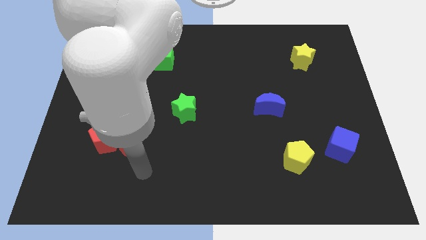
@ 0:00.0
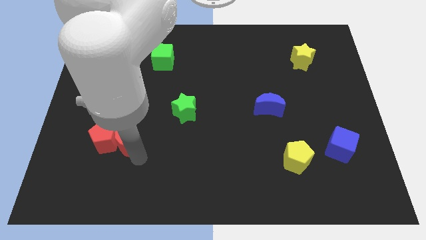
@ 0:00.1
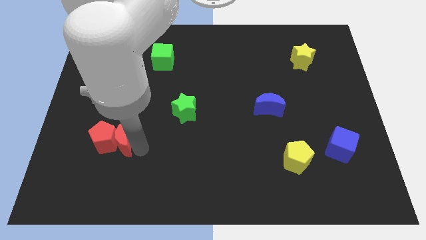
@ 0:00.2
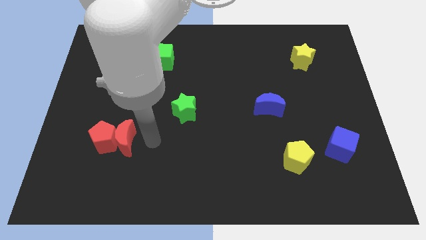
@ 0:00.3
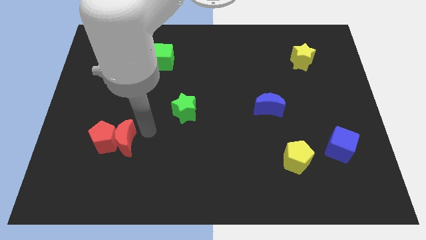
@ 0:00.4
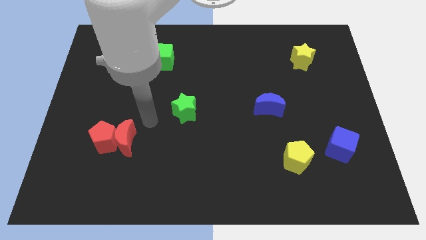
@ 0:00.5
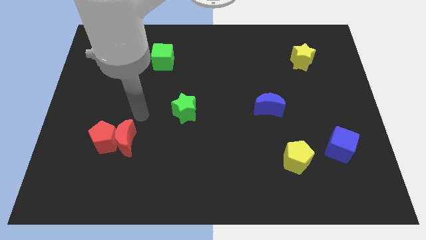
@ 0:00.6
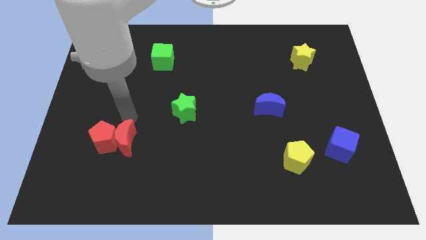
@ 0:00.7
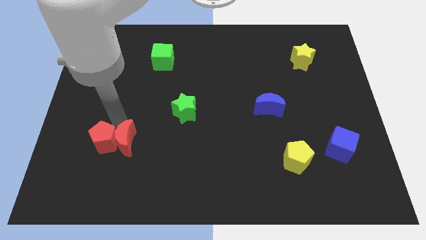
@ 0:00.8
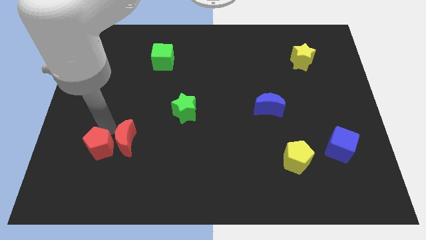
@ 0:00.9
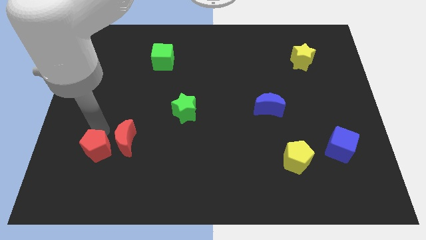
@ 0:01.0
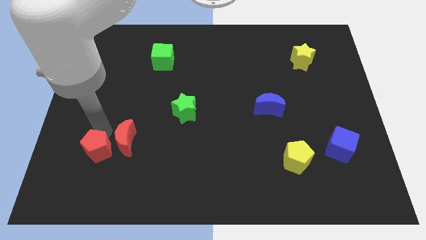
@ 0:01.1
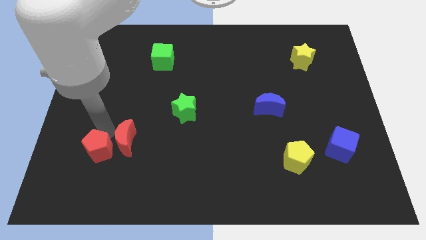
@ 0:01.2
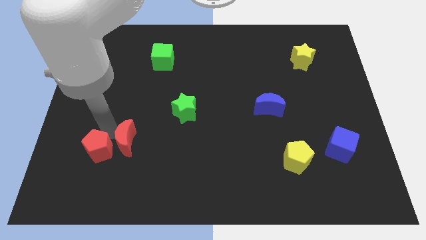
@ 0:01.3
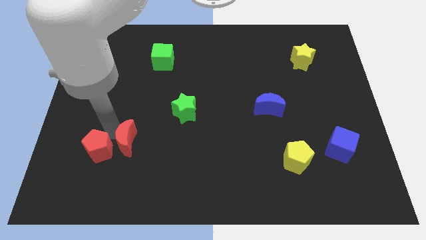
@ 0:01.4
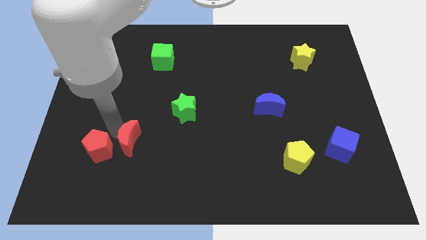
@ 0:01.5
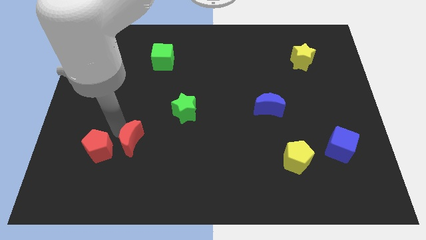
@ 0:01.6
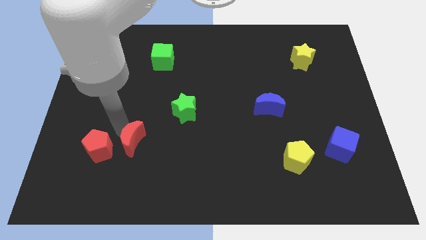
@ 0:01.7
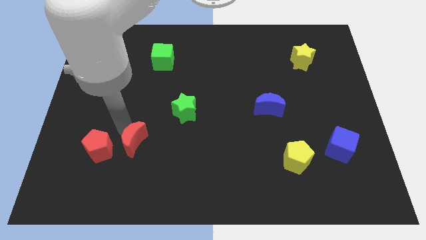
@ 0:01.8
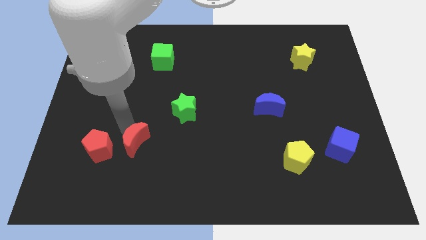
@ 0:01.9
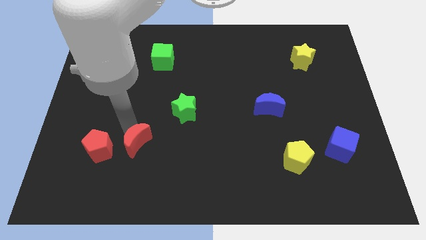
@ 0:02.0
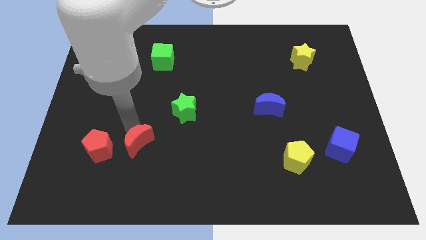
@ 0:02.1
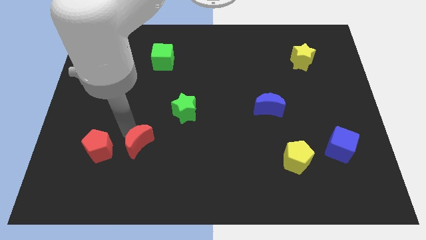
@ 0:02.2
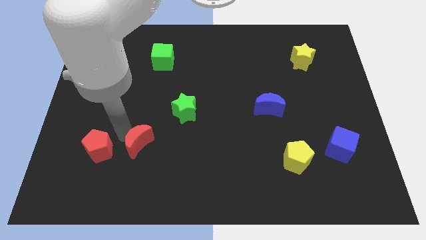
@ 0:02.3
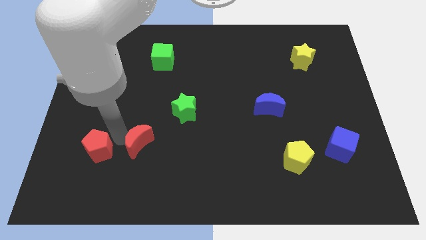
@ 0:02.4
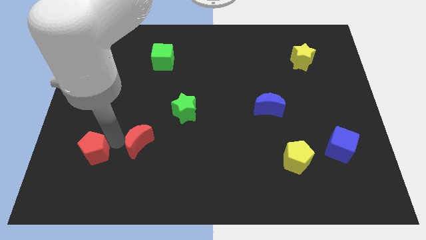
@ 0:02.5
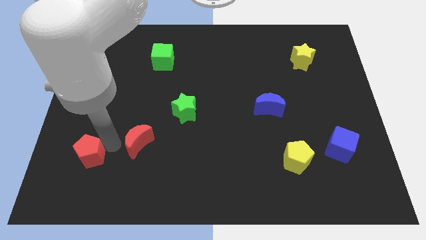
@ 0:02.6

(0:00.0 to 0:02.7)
pull the red moon apart from the red pentagon

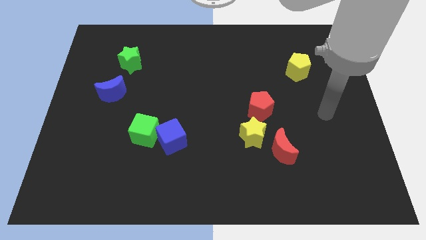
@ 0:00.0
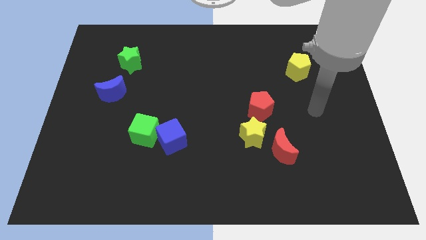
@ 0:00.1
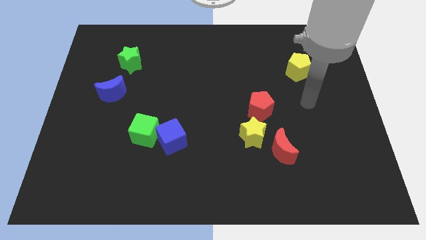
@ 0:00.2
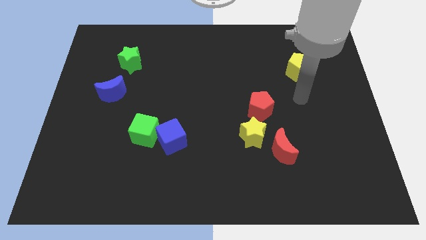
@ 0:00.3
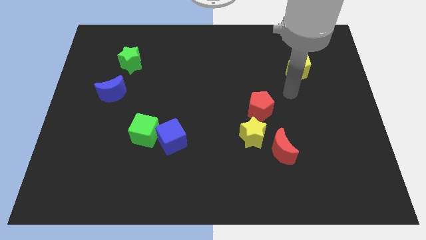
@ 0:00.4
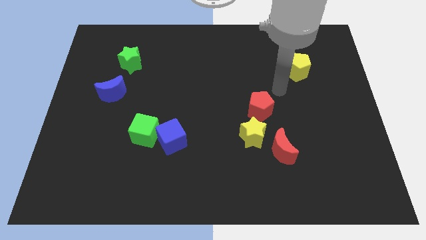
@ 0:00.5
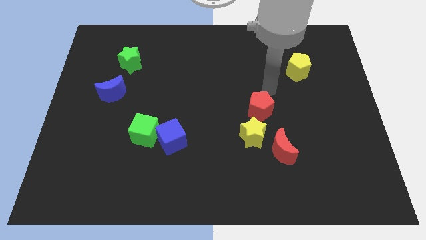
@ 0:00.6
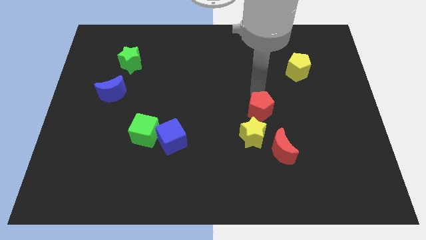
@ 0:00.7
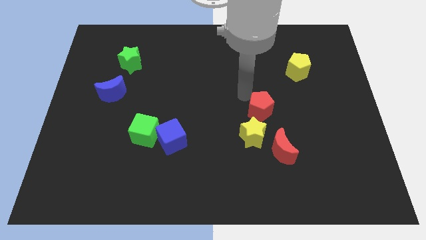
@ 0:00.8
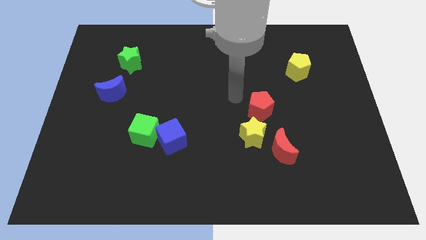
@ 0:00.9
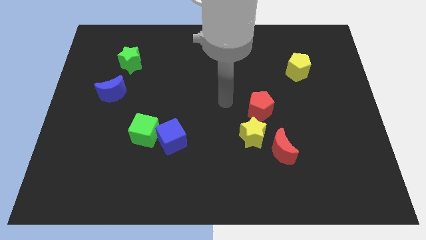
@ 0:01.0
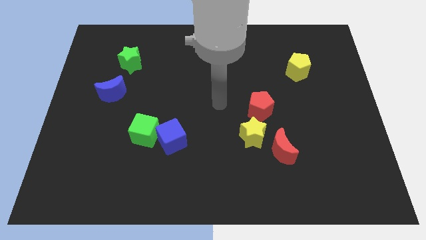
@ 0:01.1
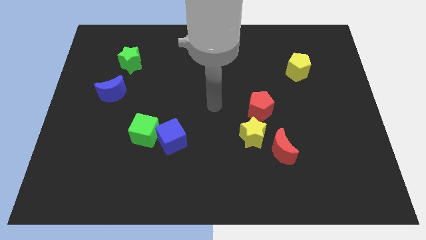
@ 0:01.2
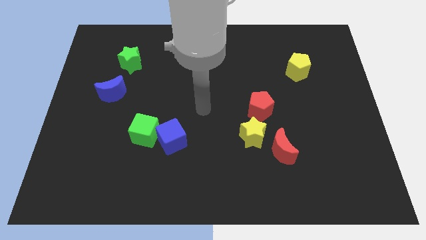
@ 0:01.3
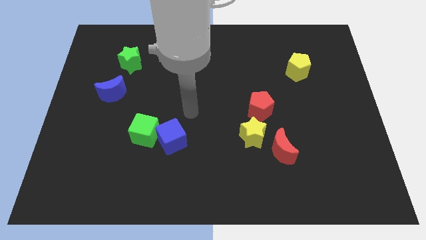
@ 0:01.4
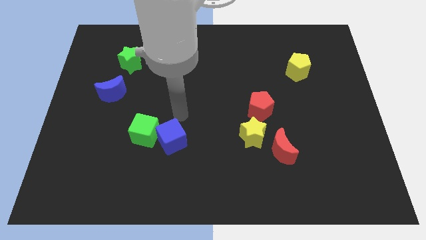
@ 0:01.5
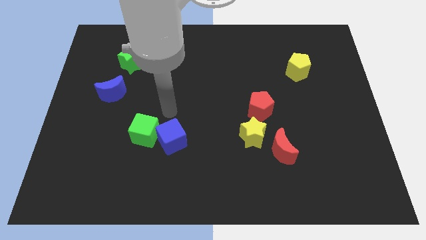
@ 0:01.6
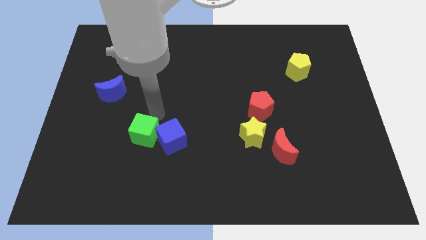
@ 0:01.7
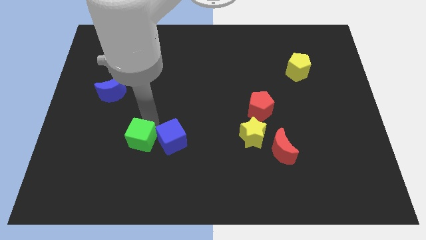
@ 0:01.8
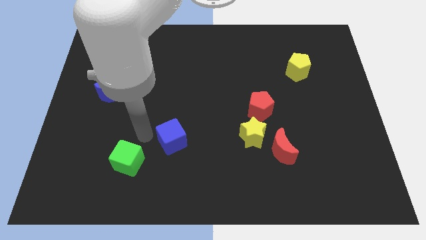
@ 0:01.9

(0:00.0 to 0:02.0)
pull the blue cube apart from the green cube

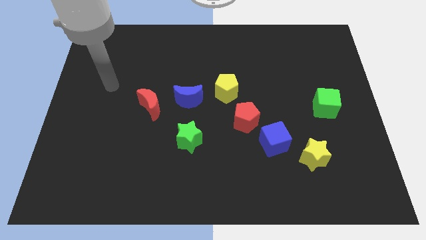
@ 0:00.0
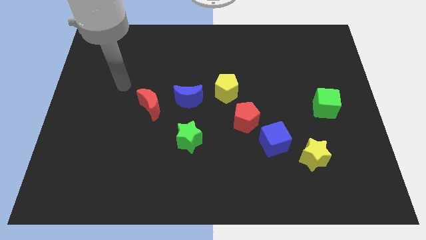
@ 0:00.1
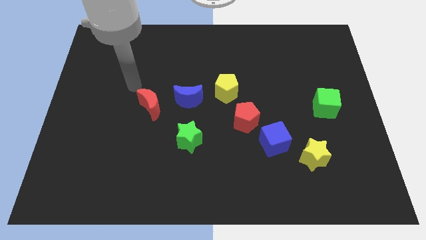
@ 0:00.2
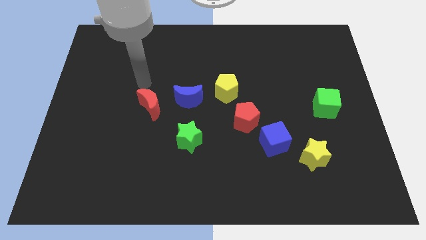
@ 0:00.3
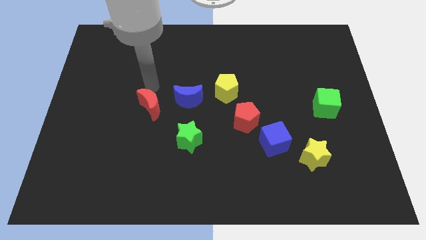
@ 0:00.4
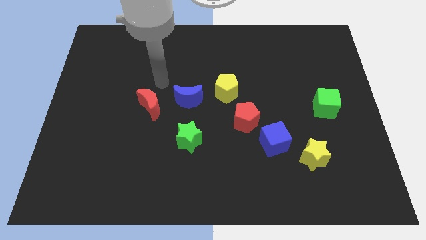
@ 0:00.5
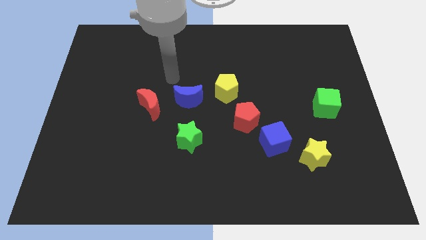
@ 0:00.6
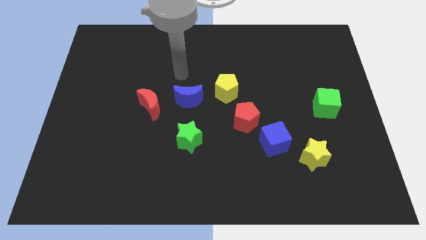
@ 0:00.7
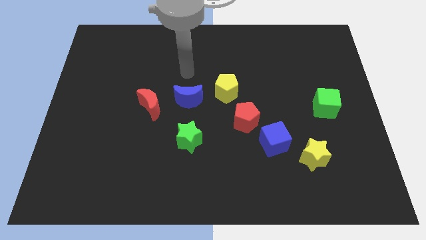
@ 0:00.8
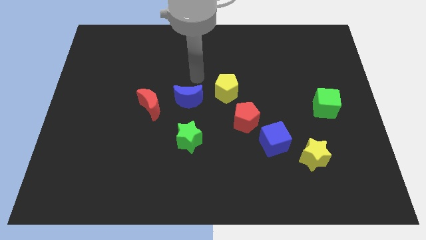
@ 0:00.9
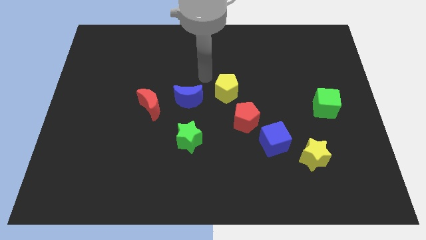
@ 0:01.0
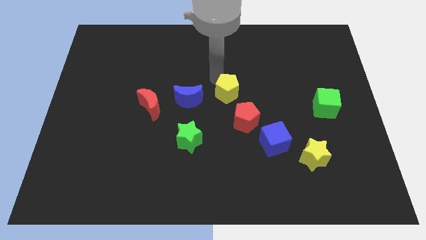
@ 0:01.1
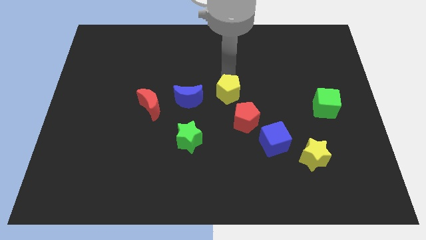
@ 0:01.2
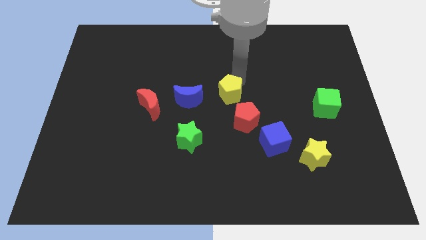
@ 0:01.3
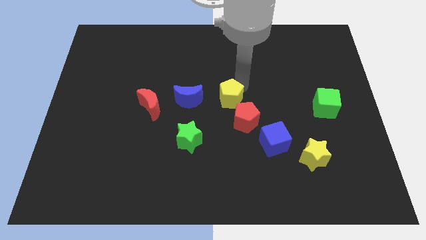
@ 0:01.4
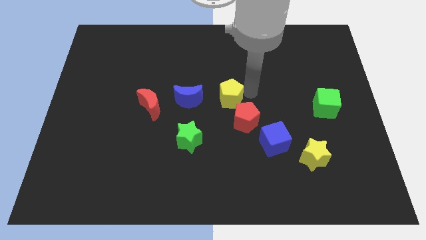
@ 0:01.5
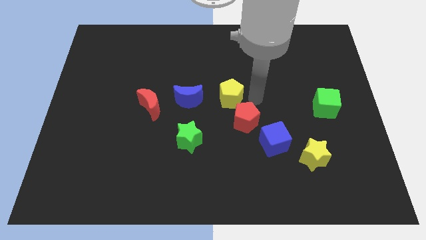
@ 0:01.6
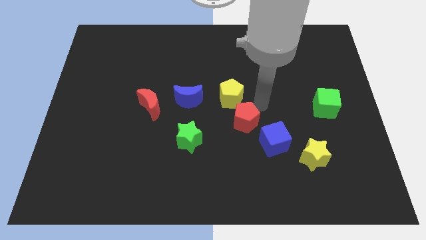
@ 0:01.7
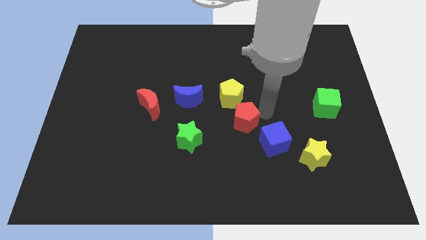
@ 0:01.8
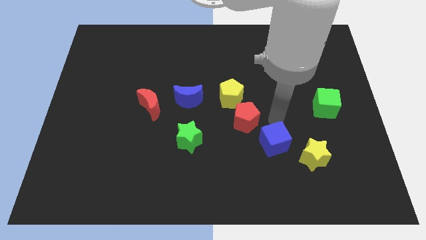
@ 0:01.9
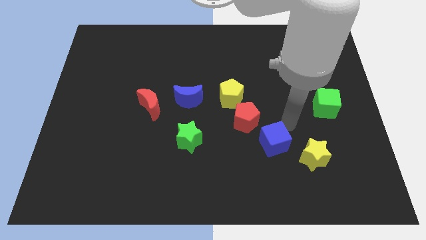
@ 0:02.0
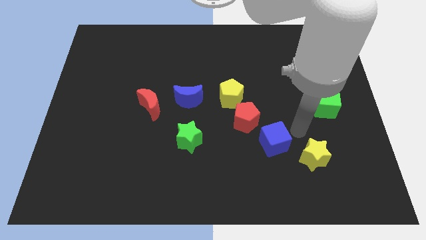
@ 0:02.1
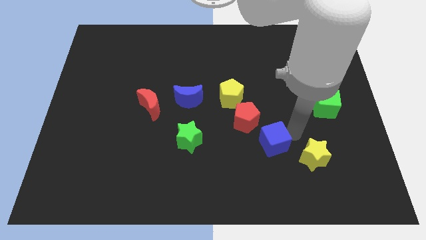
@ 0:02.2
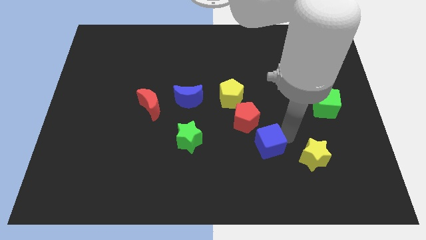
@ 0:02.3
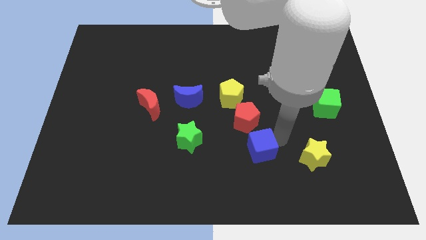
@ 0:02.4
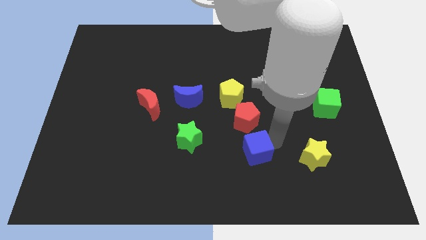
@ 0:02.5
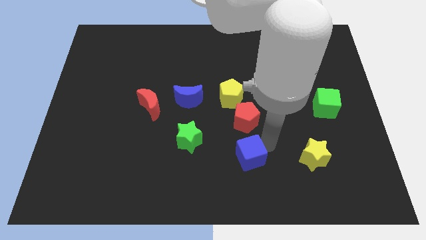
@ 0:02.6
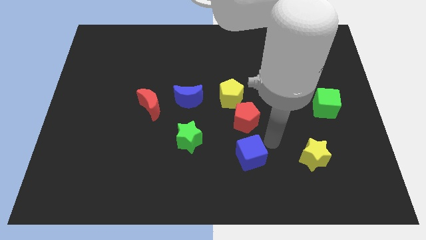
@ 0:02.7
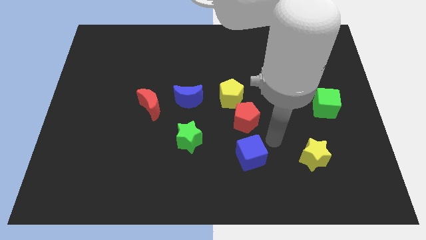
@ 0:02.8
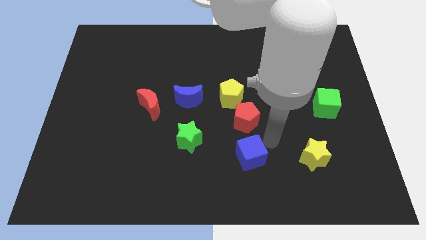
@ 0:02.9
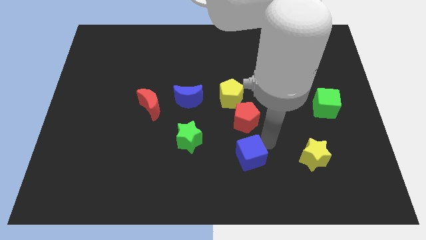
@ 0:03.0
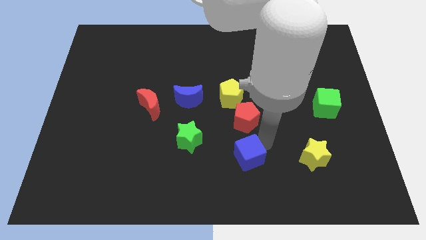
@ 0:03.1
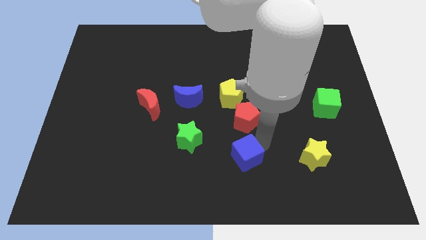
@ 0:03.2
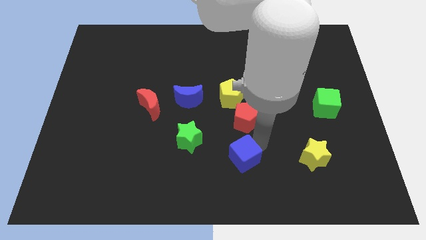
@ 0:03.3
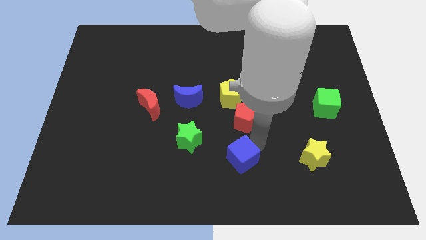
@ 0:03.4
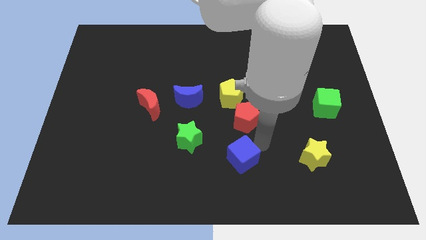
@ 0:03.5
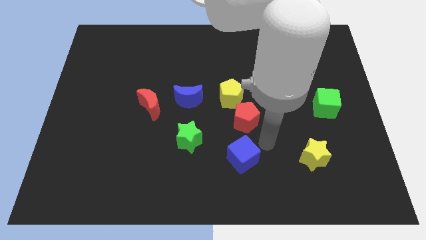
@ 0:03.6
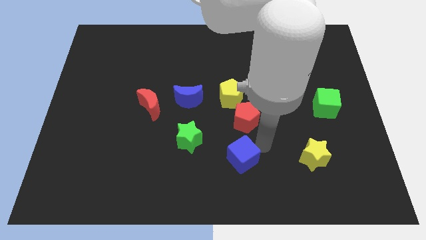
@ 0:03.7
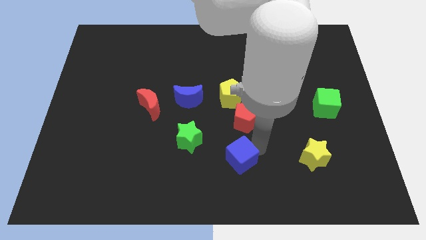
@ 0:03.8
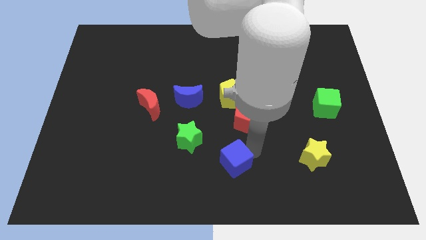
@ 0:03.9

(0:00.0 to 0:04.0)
pull the blue cube apart from the red pentagon and yellow star

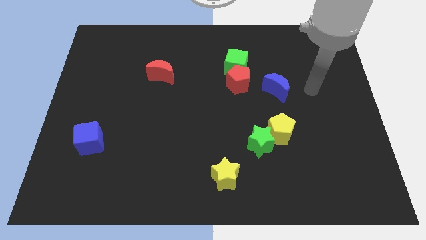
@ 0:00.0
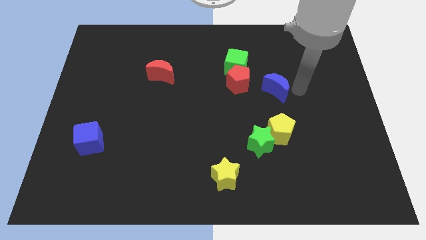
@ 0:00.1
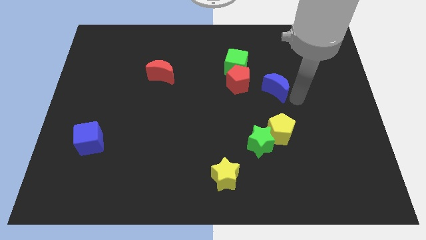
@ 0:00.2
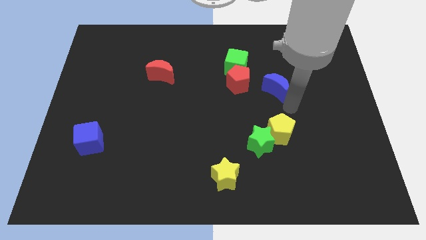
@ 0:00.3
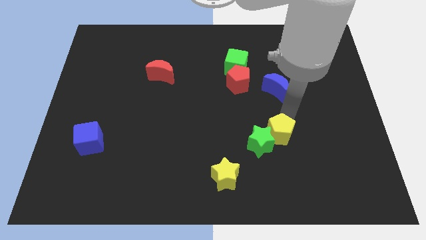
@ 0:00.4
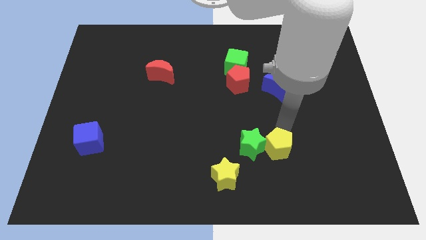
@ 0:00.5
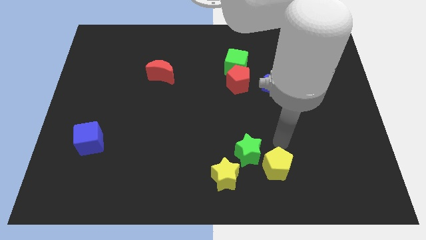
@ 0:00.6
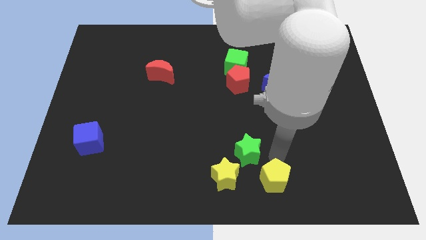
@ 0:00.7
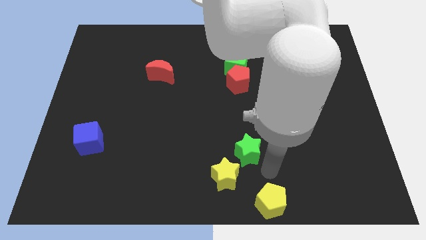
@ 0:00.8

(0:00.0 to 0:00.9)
pull the green star apart from the yellow pentagon
